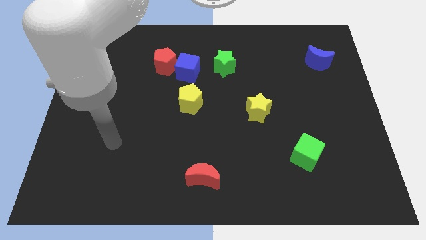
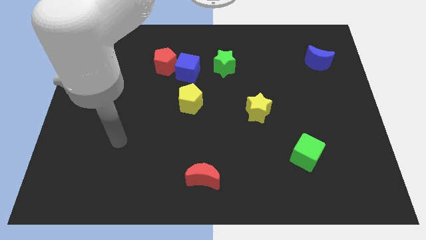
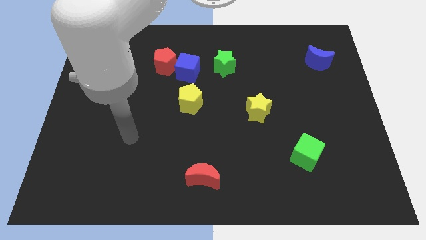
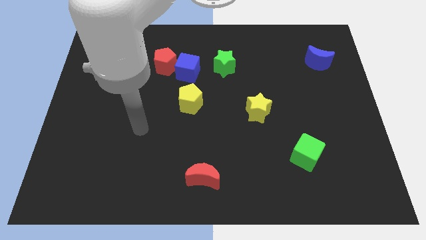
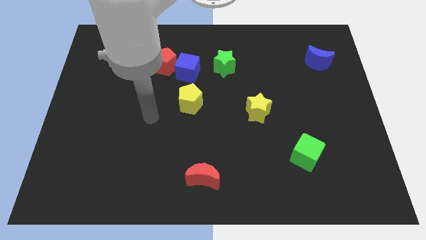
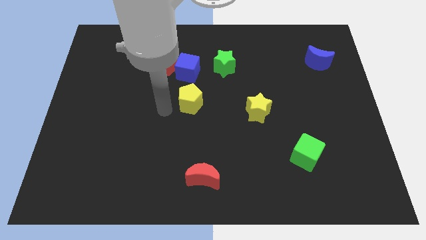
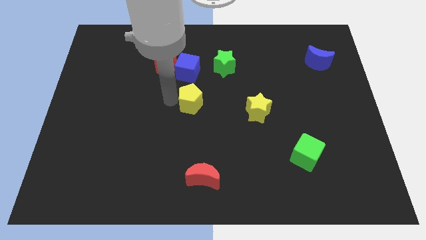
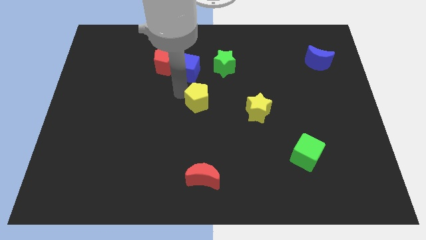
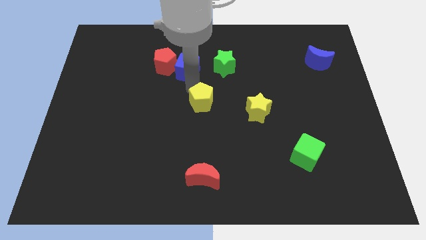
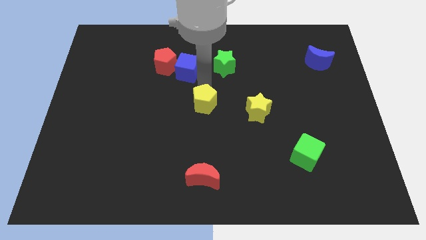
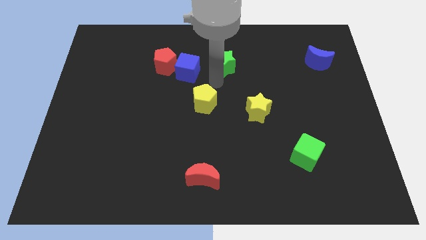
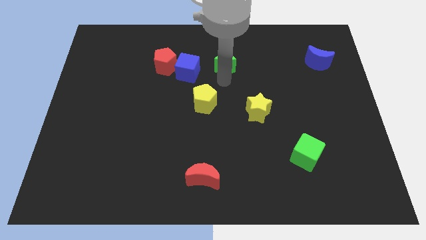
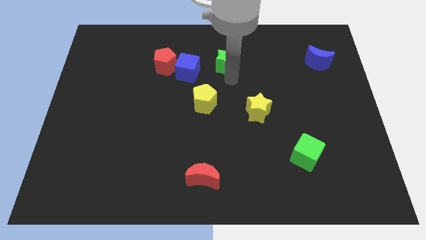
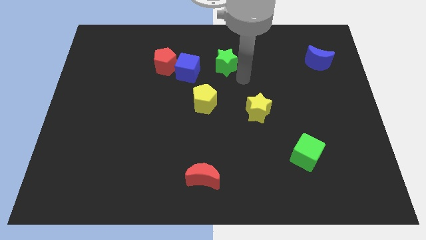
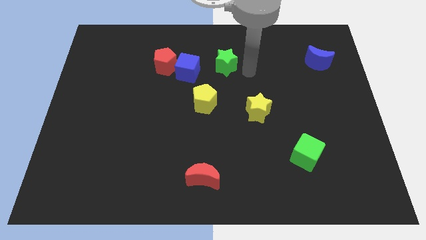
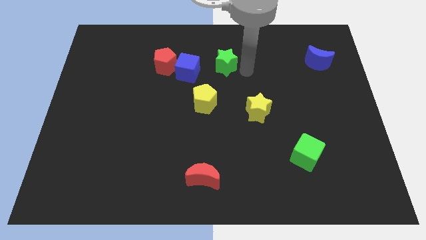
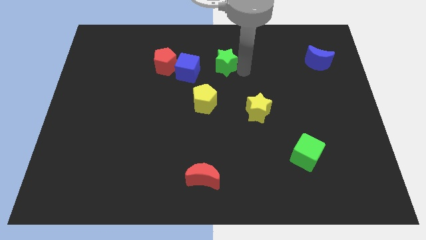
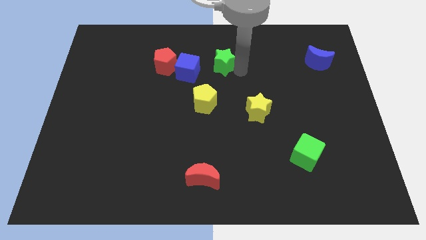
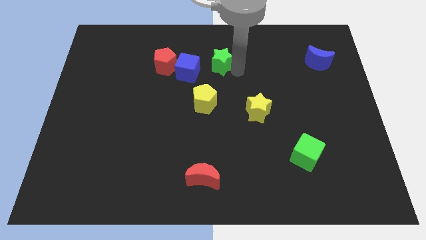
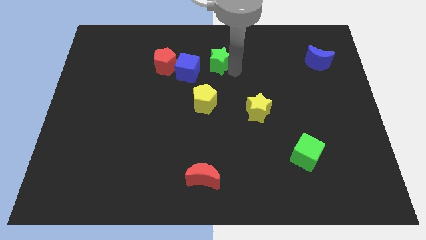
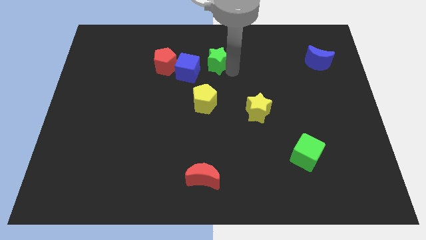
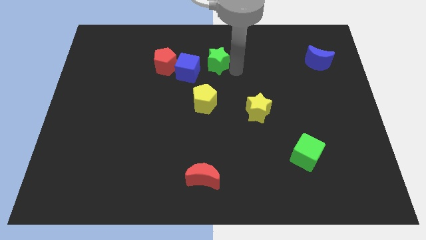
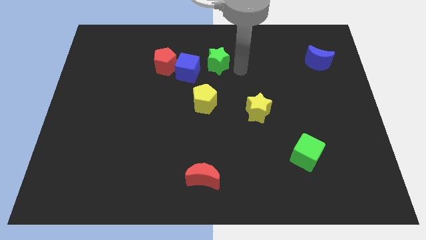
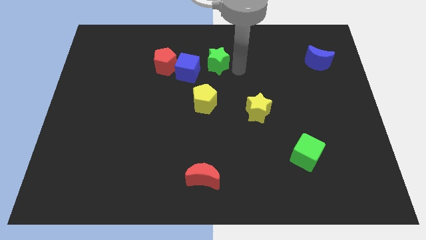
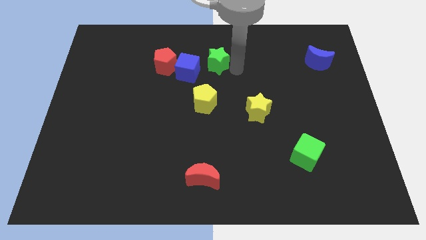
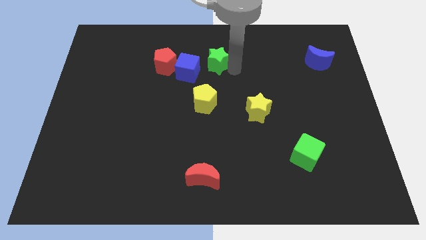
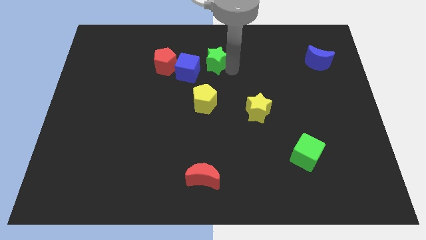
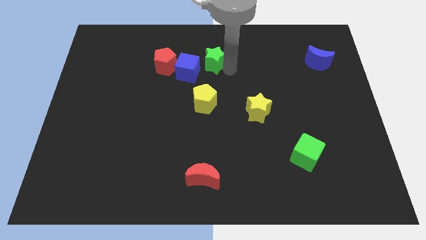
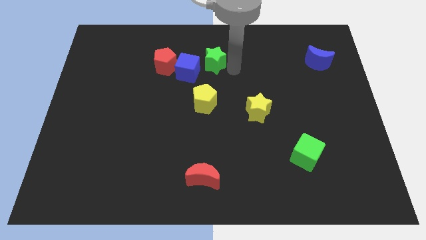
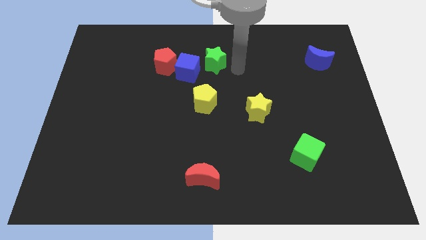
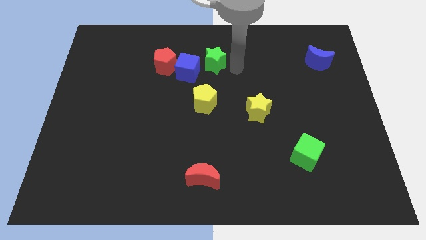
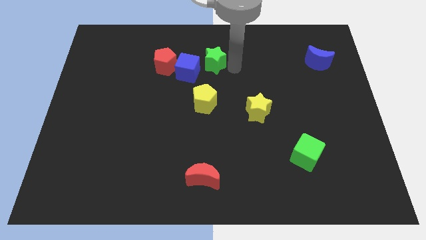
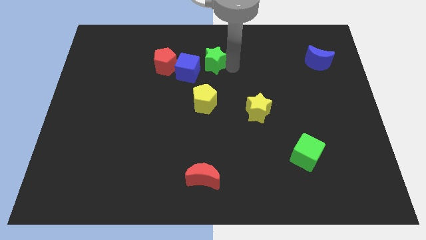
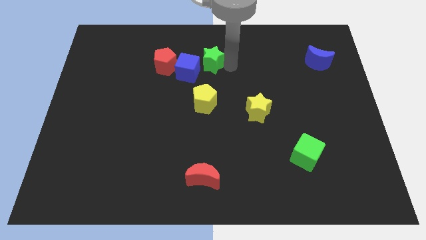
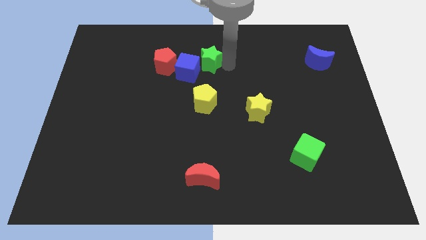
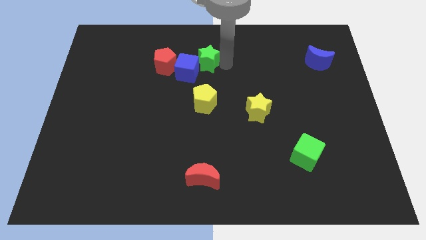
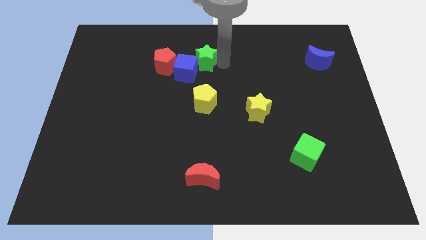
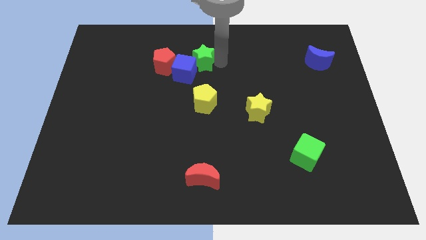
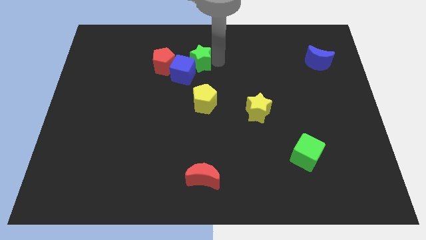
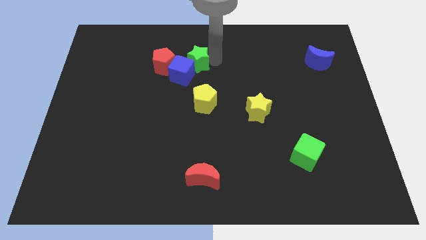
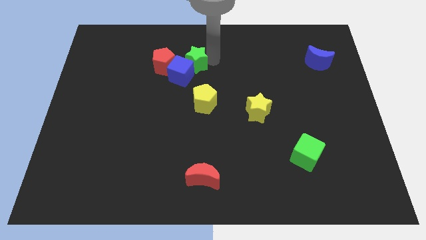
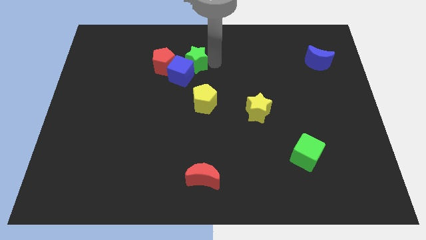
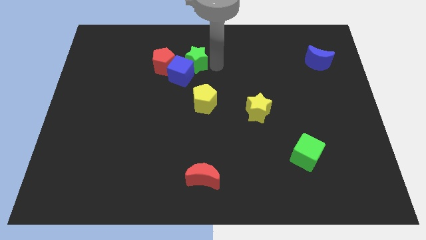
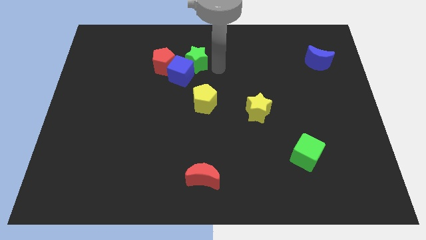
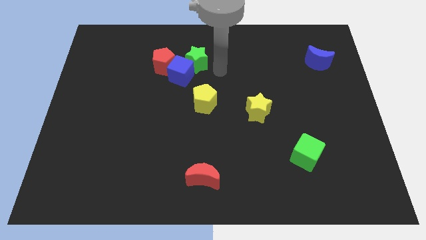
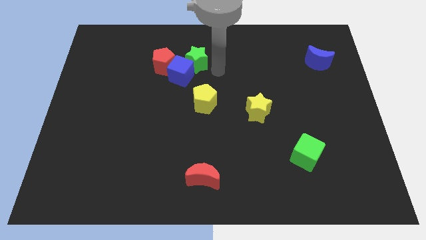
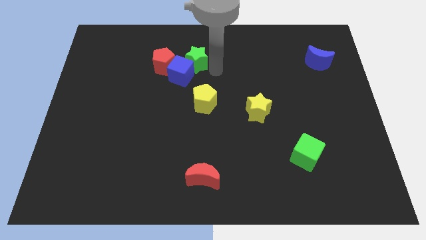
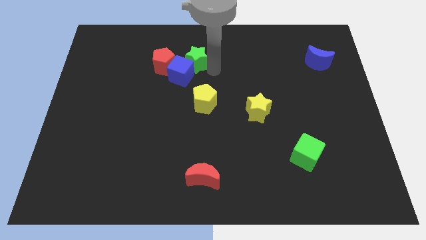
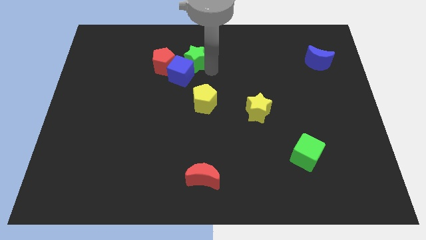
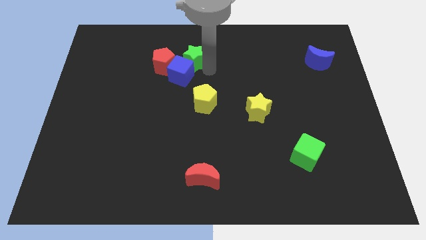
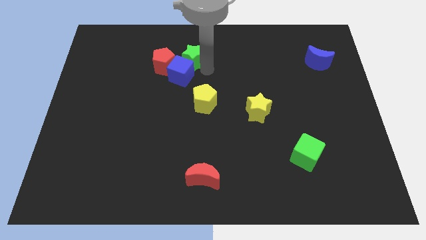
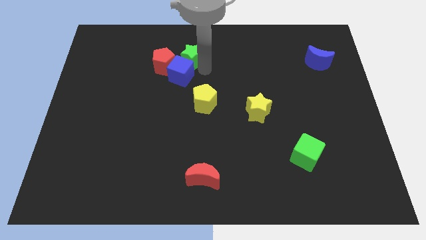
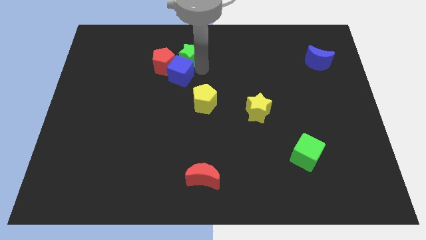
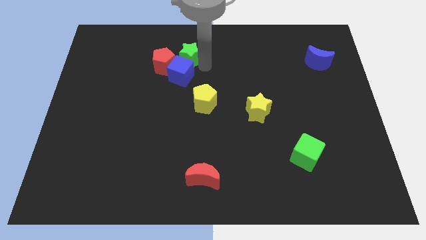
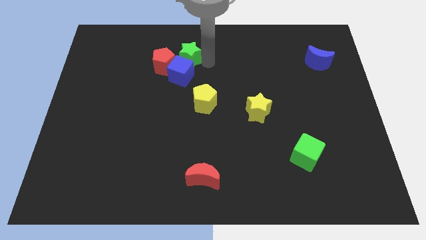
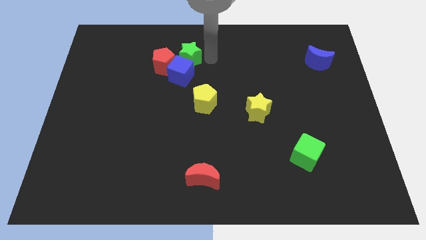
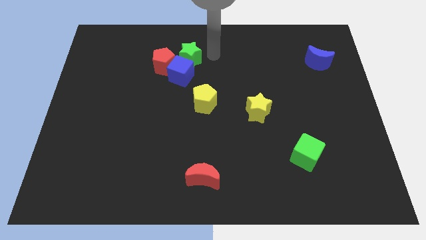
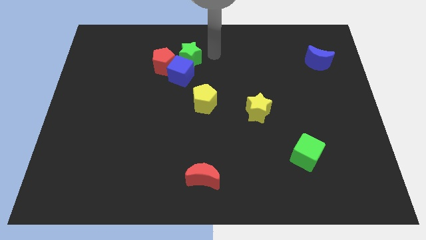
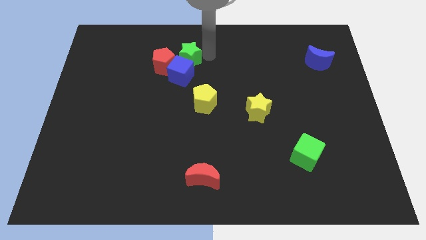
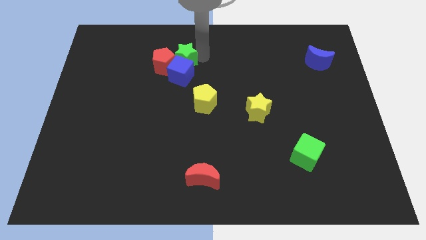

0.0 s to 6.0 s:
push the green star towards the red pentagon

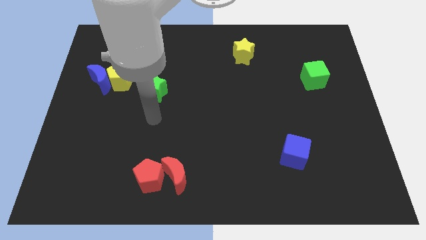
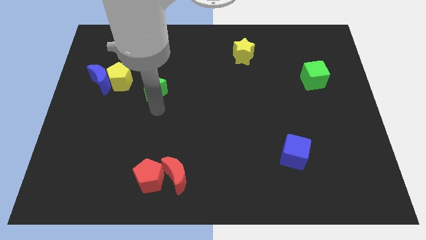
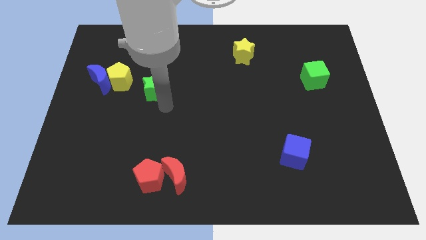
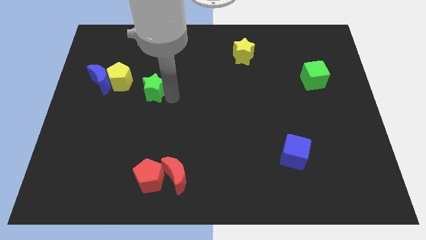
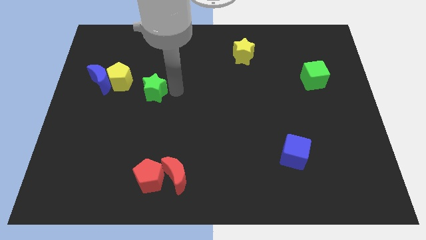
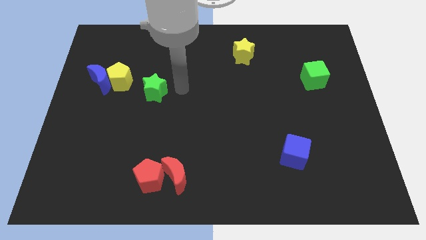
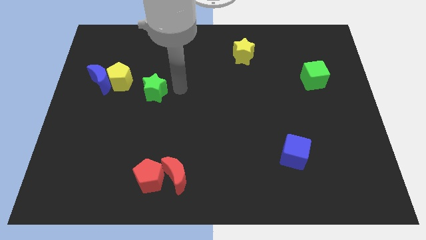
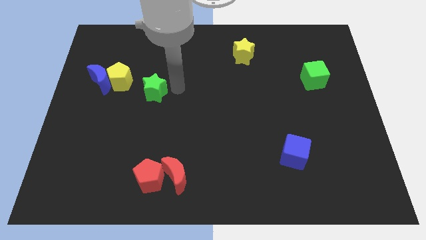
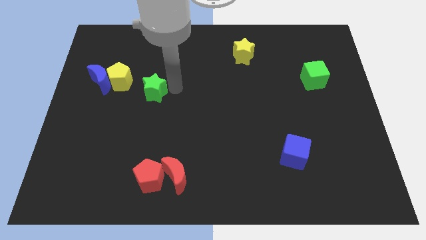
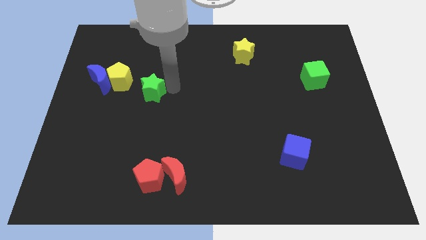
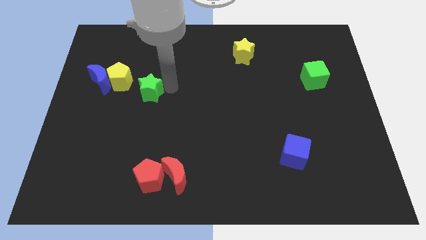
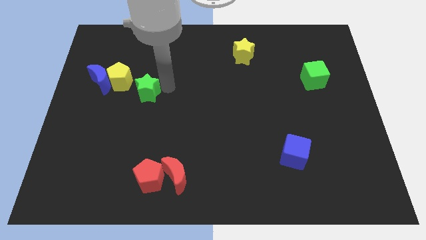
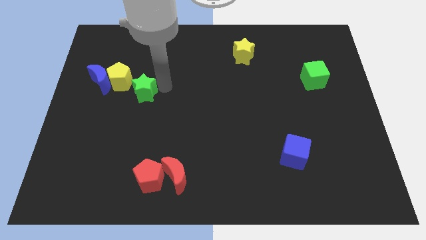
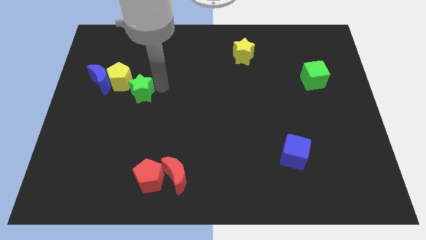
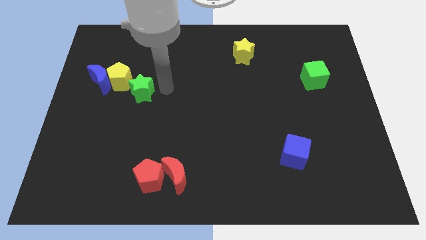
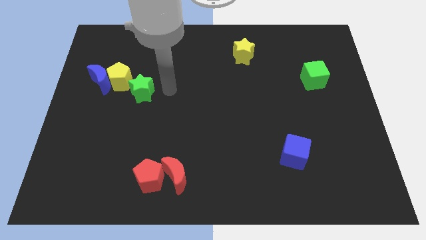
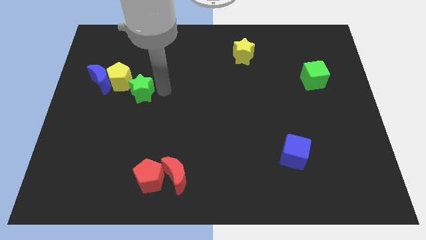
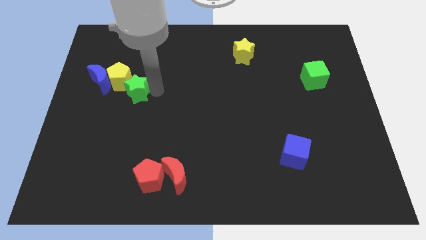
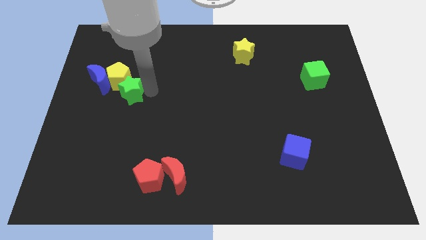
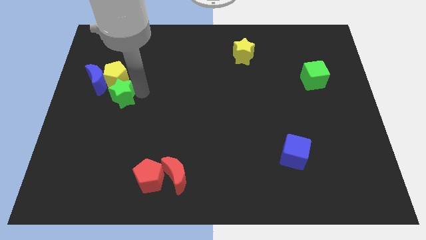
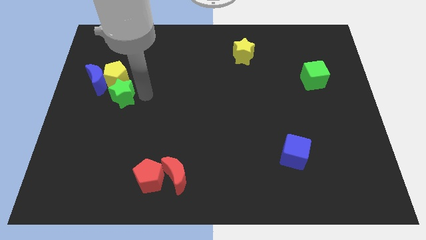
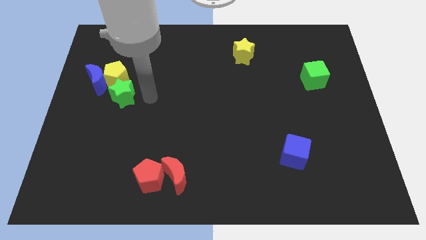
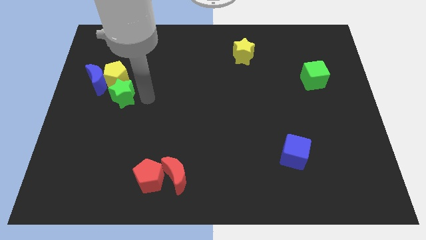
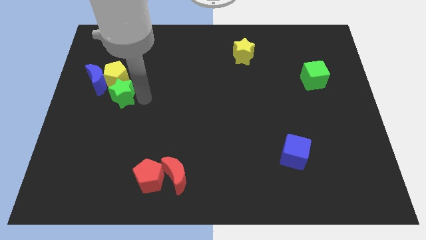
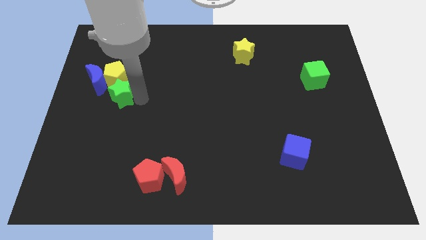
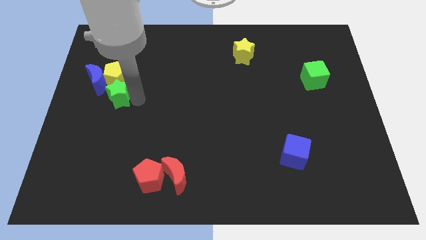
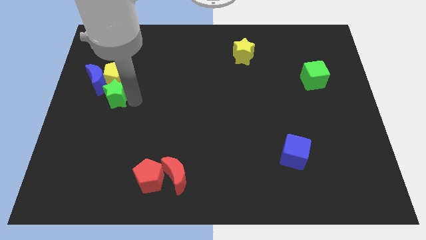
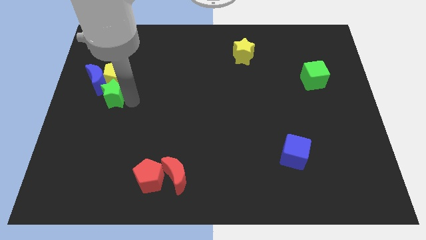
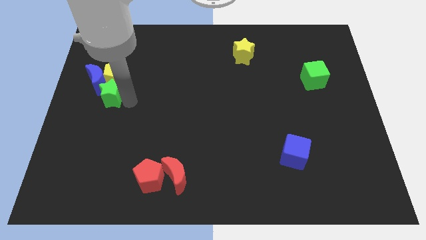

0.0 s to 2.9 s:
push the green star to the blue moon
